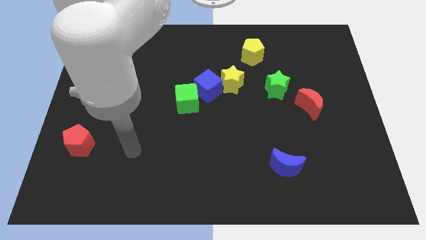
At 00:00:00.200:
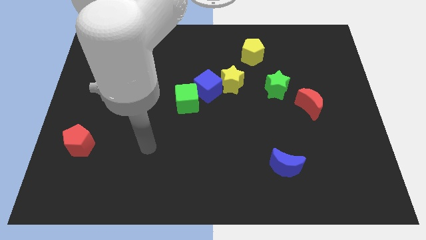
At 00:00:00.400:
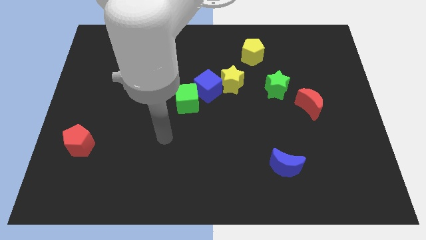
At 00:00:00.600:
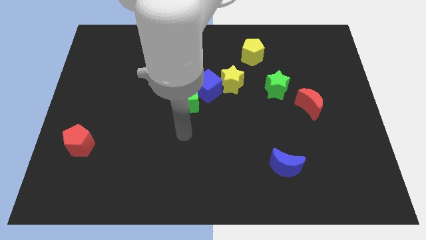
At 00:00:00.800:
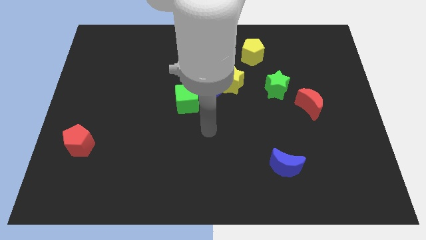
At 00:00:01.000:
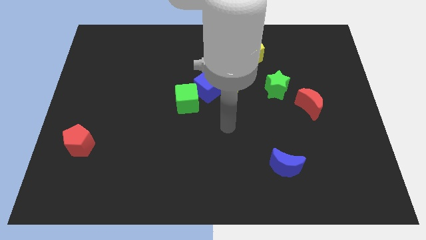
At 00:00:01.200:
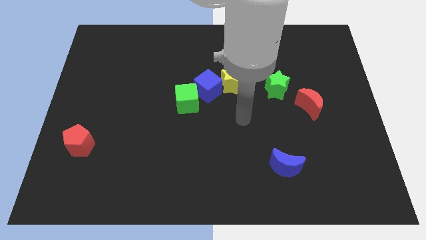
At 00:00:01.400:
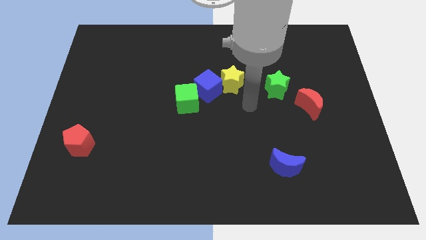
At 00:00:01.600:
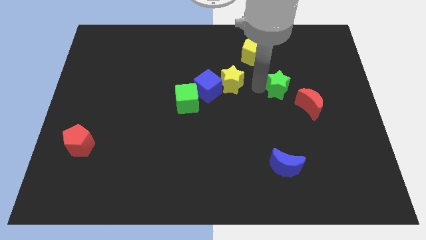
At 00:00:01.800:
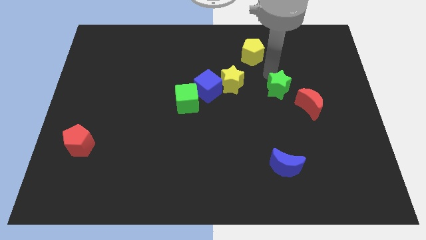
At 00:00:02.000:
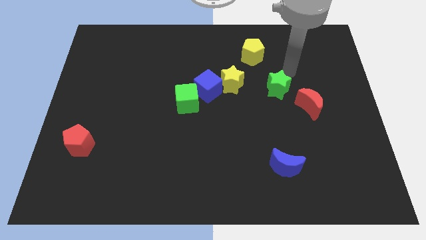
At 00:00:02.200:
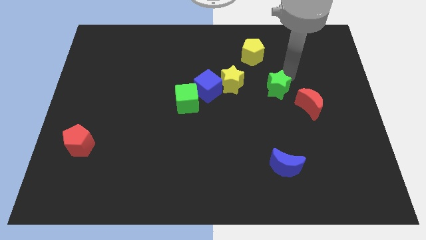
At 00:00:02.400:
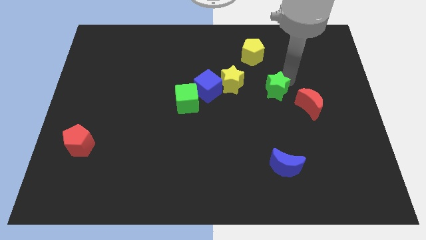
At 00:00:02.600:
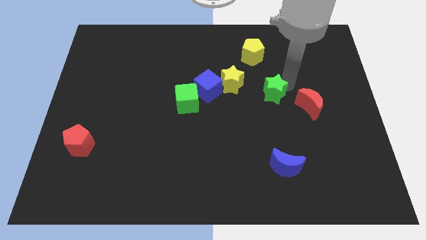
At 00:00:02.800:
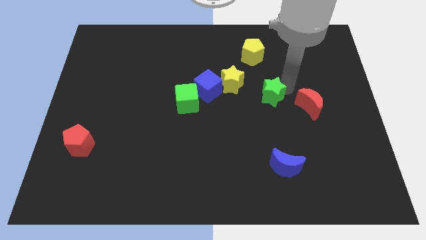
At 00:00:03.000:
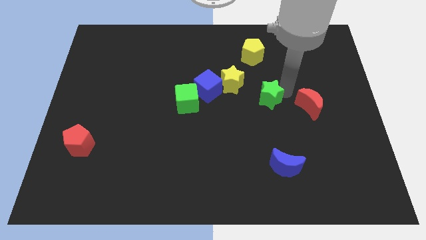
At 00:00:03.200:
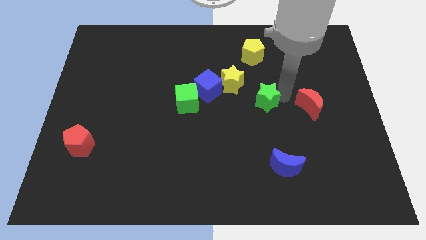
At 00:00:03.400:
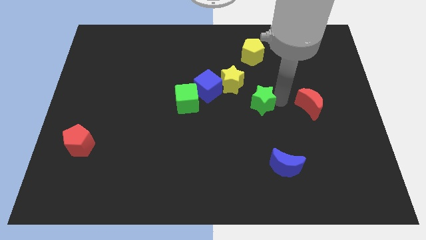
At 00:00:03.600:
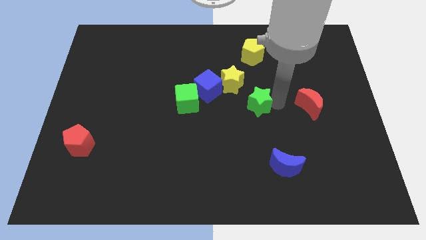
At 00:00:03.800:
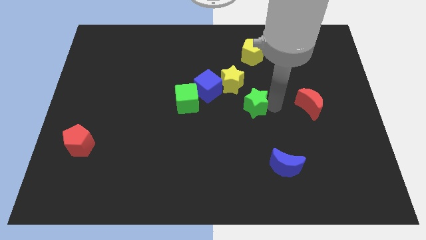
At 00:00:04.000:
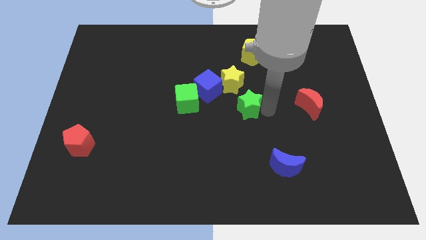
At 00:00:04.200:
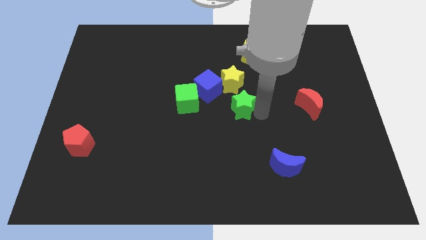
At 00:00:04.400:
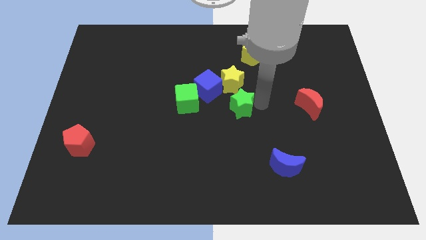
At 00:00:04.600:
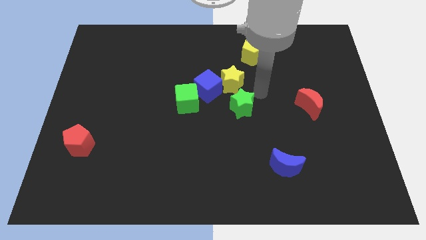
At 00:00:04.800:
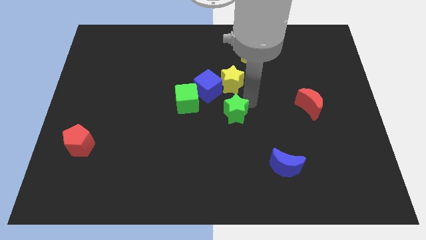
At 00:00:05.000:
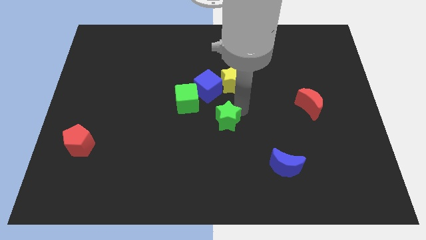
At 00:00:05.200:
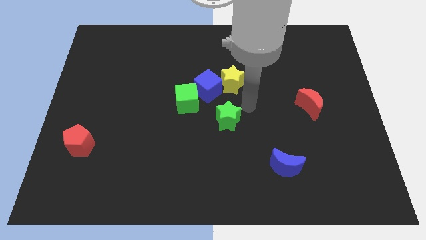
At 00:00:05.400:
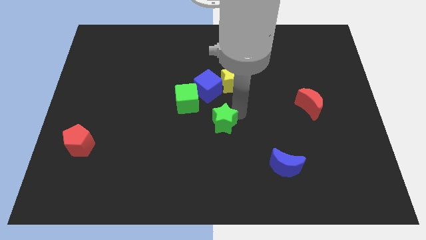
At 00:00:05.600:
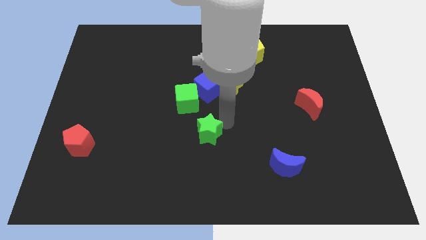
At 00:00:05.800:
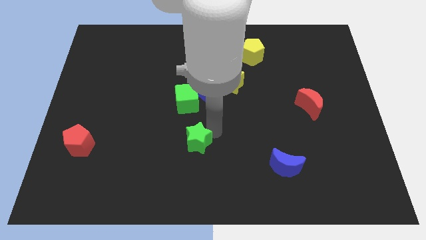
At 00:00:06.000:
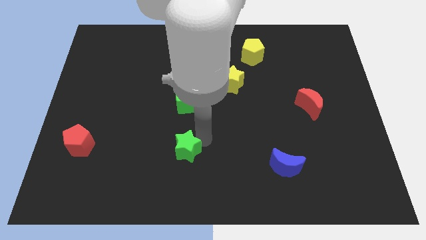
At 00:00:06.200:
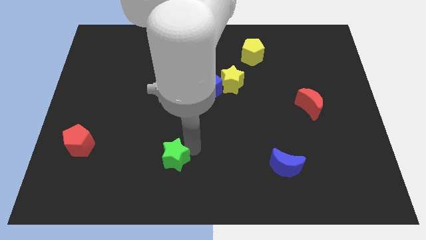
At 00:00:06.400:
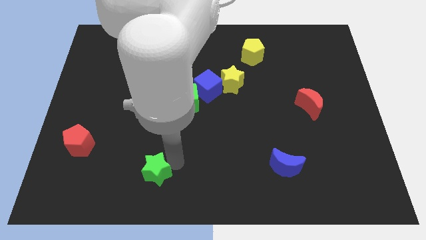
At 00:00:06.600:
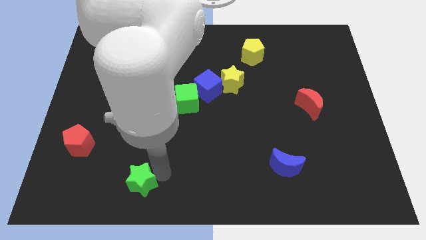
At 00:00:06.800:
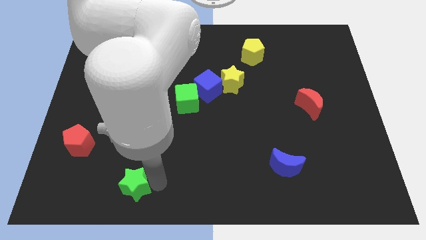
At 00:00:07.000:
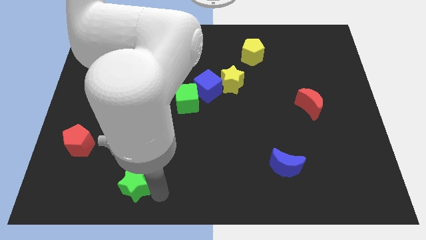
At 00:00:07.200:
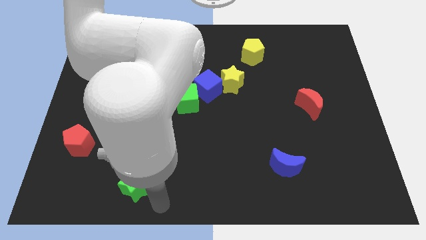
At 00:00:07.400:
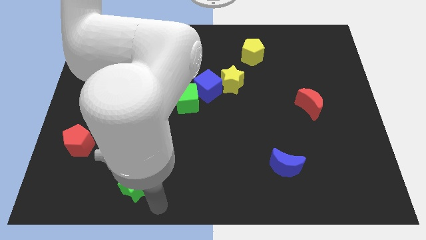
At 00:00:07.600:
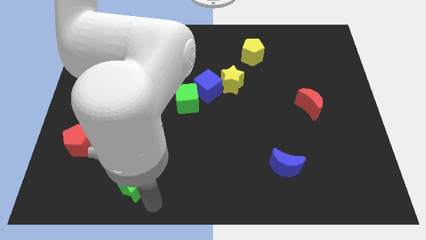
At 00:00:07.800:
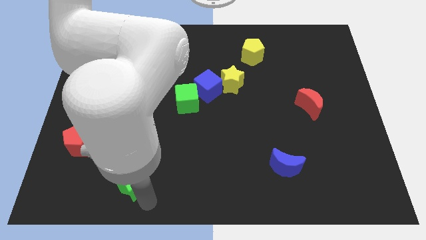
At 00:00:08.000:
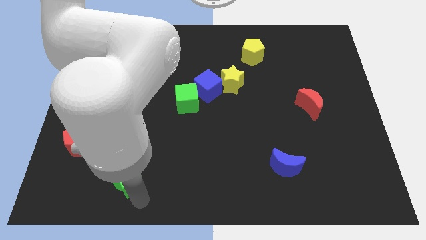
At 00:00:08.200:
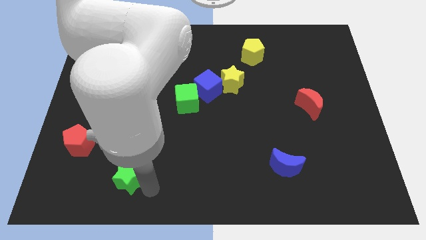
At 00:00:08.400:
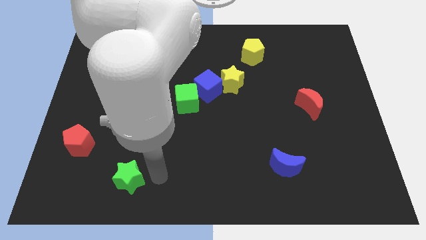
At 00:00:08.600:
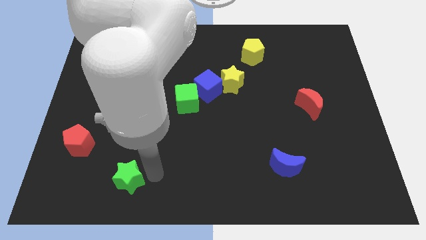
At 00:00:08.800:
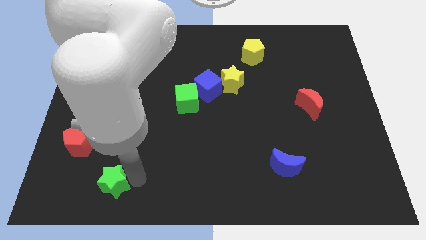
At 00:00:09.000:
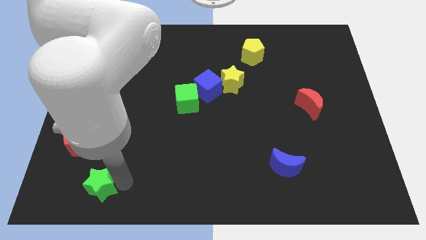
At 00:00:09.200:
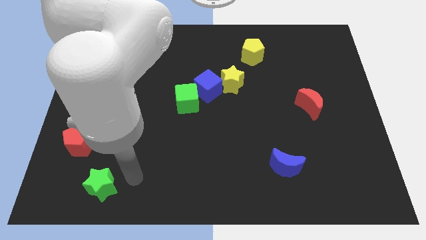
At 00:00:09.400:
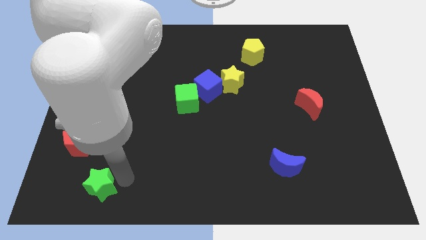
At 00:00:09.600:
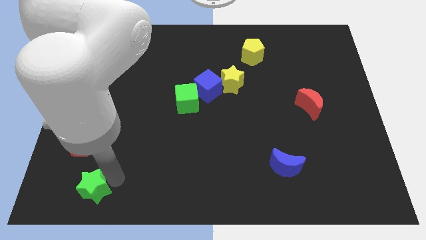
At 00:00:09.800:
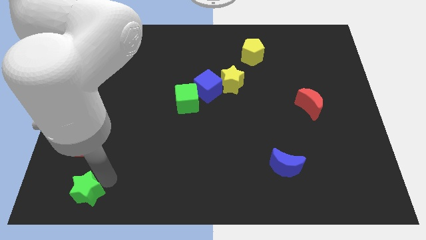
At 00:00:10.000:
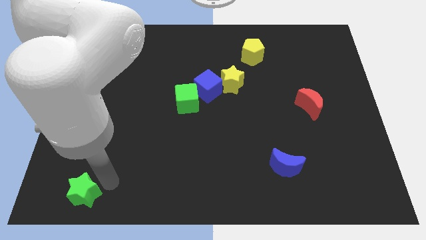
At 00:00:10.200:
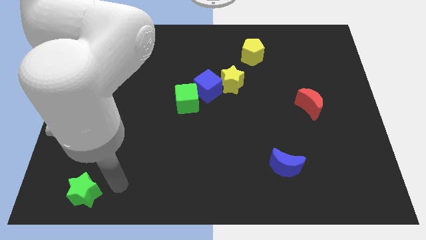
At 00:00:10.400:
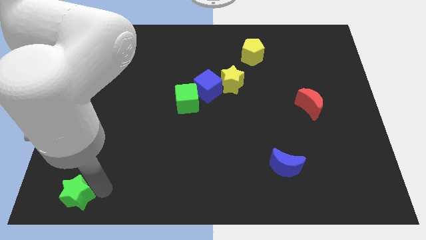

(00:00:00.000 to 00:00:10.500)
slide the green star to the lower left corner
